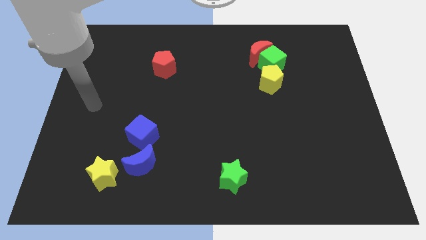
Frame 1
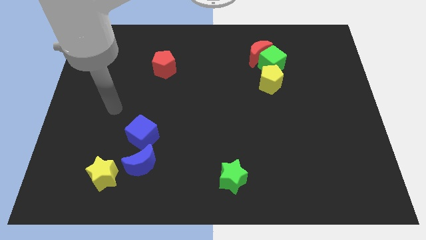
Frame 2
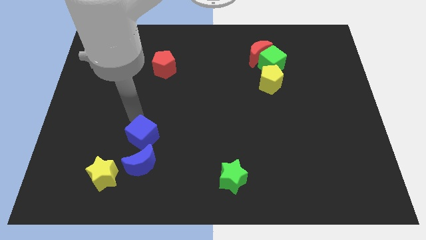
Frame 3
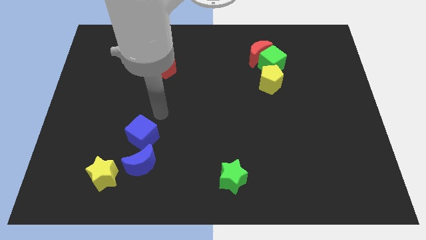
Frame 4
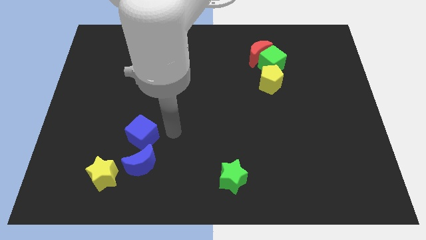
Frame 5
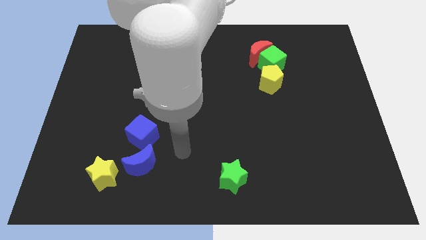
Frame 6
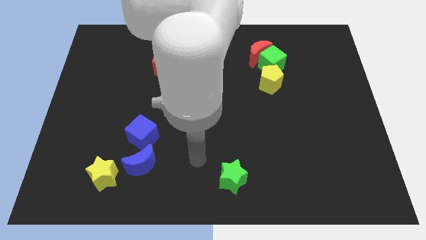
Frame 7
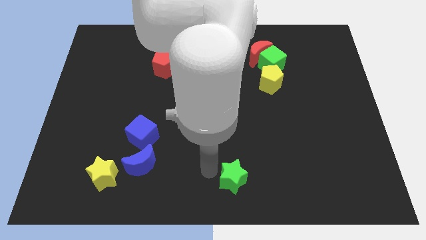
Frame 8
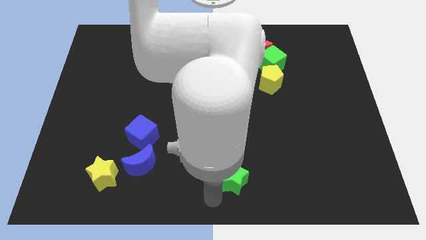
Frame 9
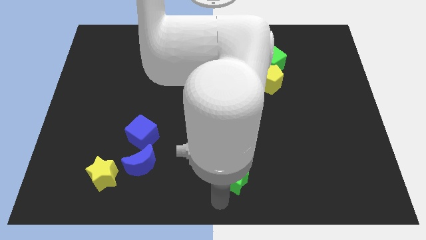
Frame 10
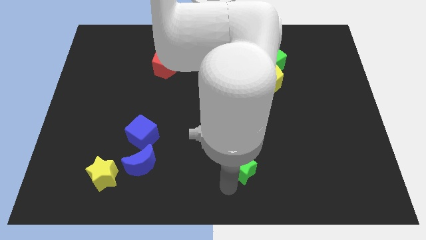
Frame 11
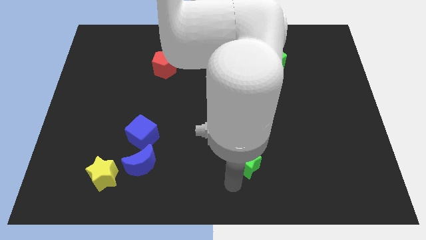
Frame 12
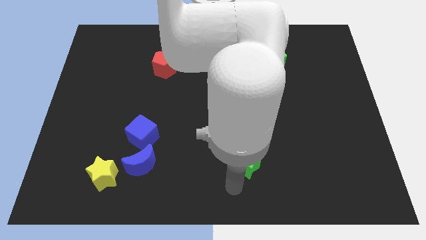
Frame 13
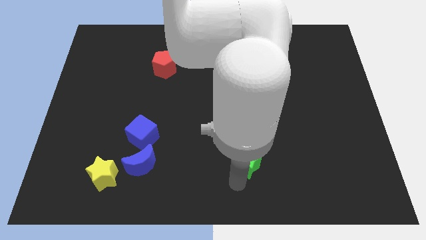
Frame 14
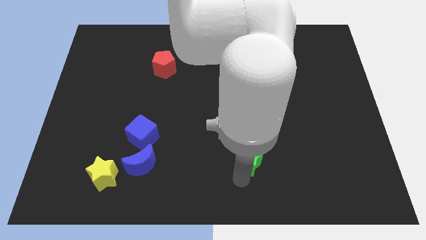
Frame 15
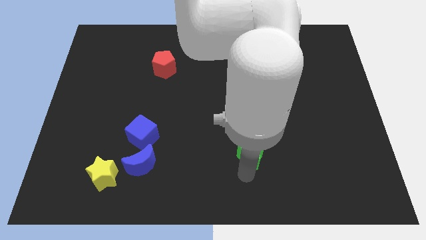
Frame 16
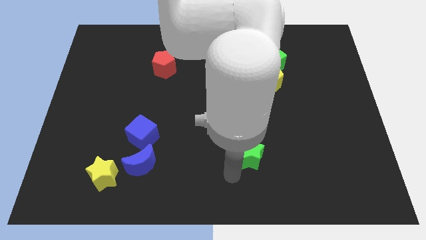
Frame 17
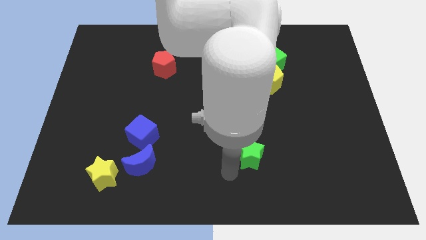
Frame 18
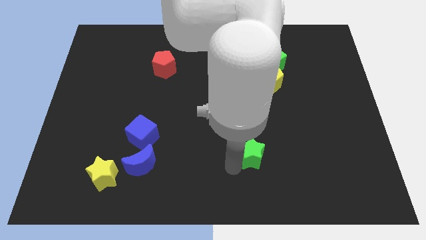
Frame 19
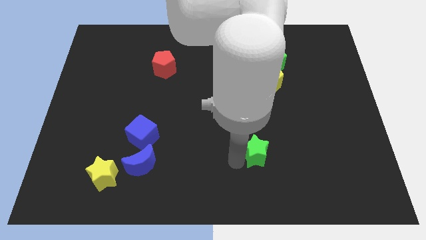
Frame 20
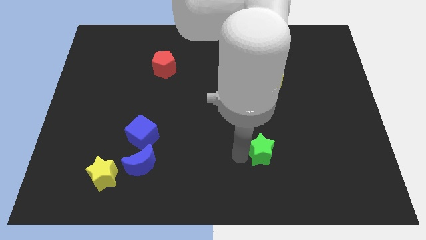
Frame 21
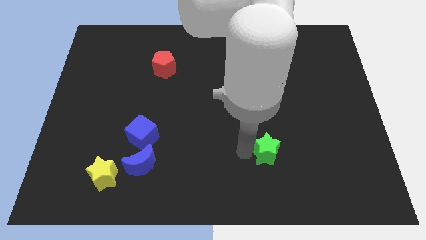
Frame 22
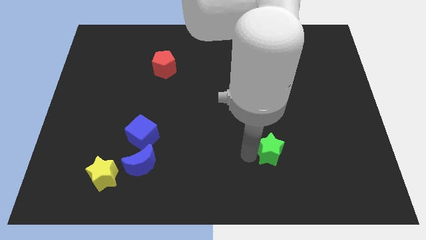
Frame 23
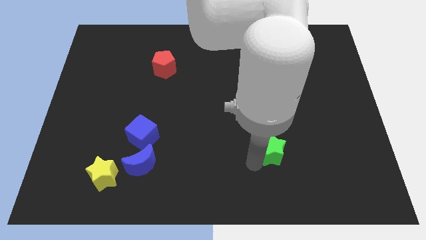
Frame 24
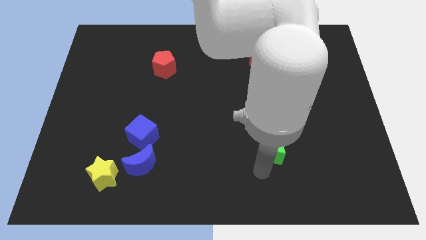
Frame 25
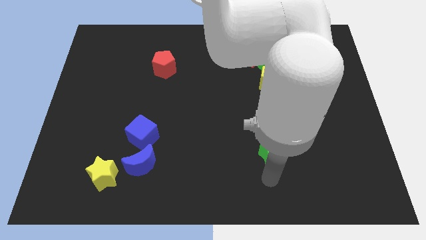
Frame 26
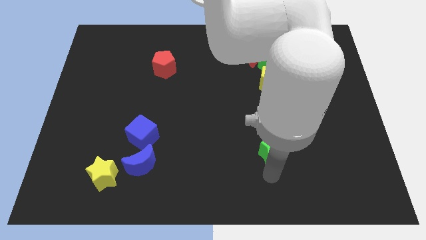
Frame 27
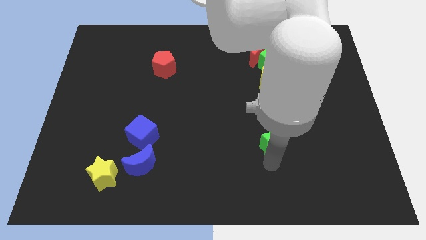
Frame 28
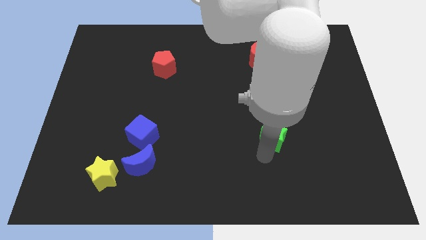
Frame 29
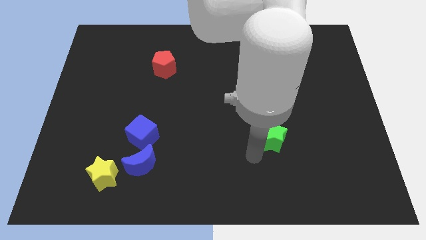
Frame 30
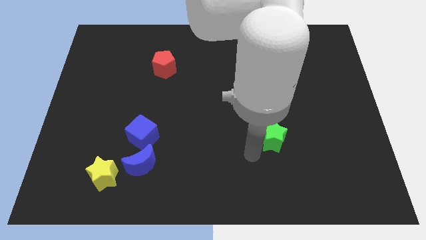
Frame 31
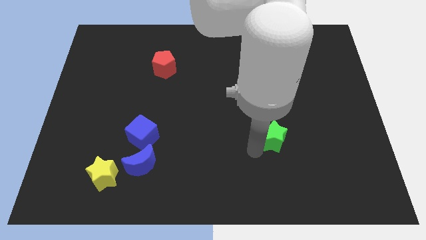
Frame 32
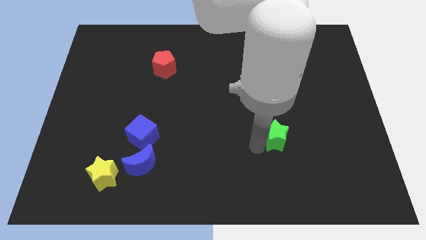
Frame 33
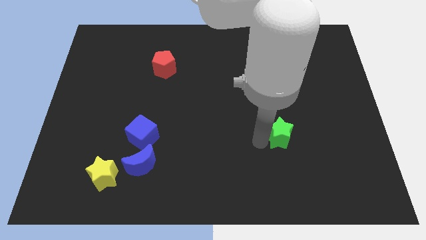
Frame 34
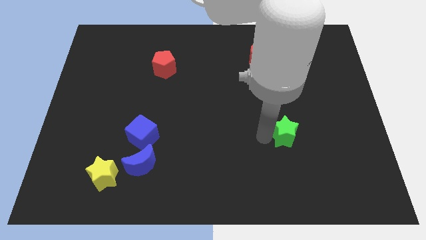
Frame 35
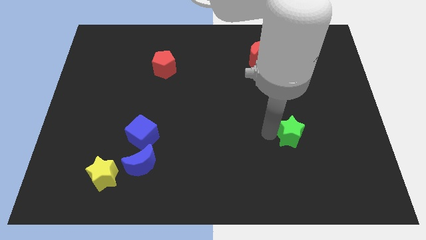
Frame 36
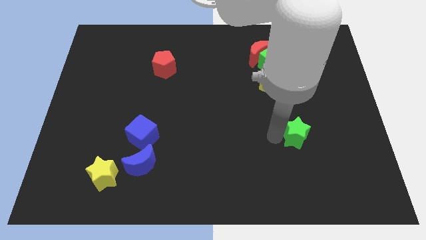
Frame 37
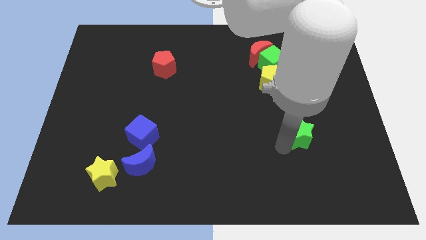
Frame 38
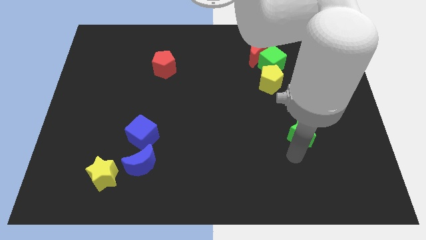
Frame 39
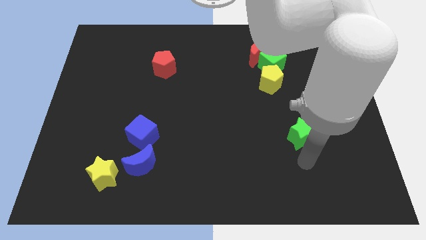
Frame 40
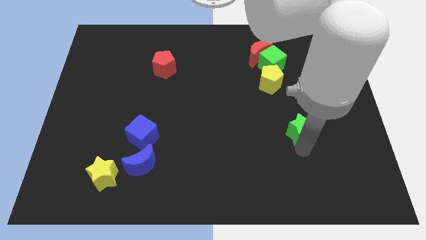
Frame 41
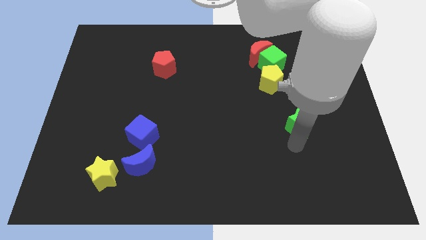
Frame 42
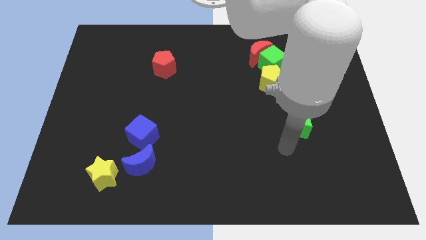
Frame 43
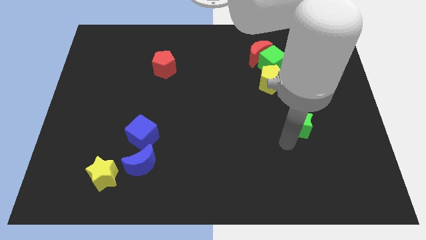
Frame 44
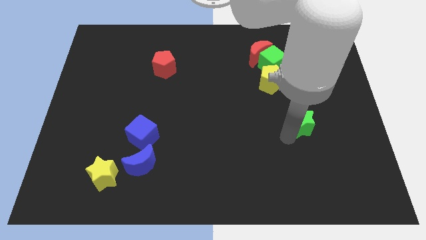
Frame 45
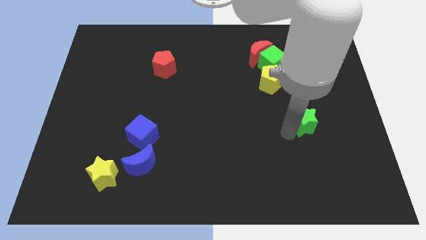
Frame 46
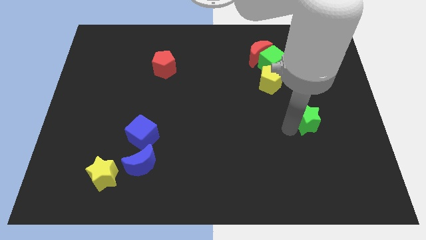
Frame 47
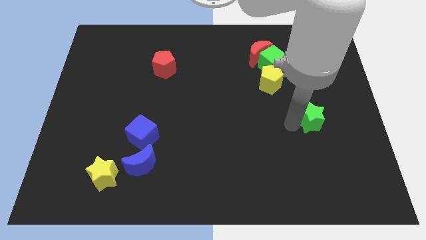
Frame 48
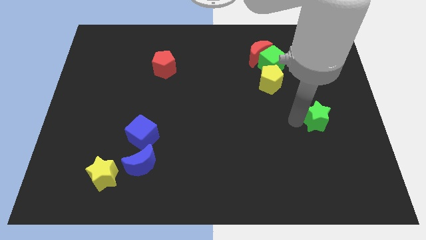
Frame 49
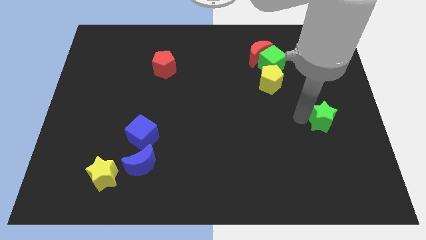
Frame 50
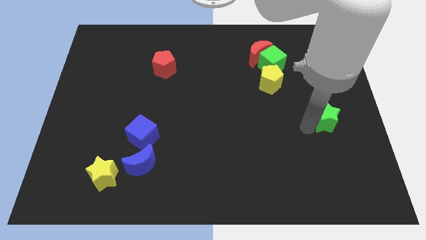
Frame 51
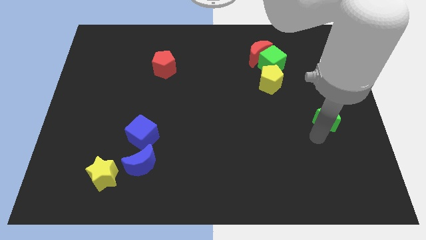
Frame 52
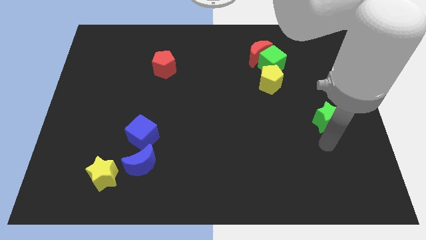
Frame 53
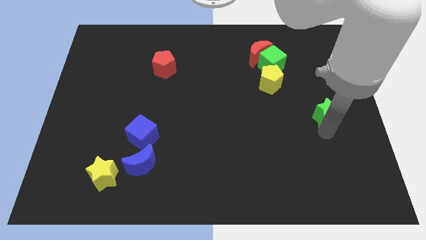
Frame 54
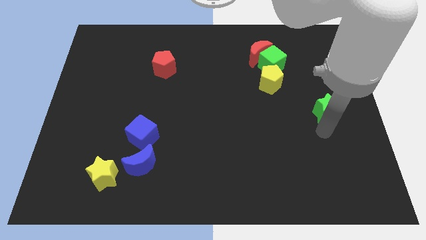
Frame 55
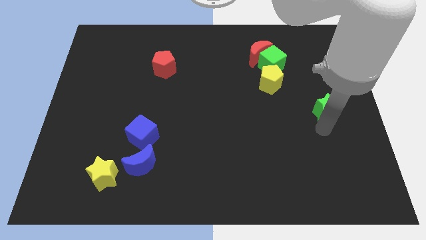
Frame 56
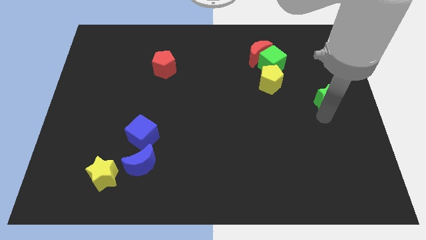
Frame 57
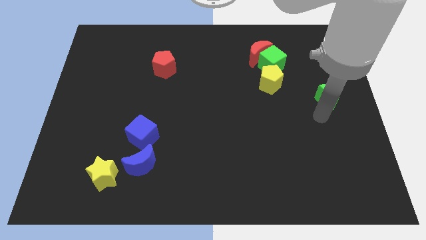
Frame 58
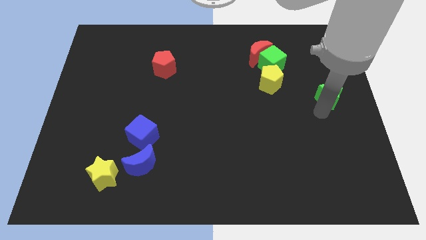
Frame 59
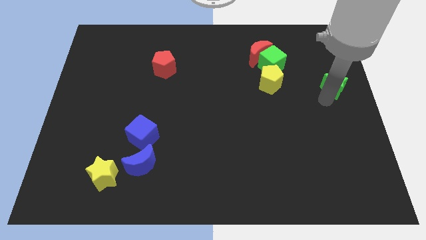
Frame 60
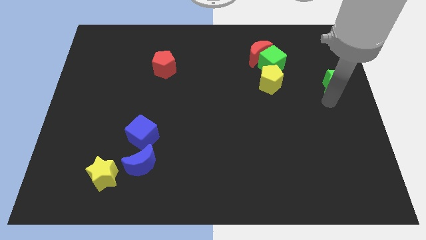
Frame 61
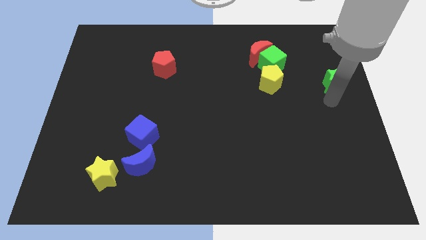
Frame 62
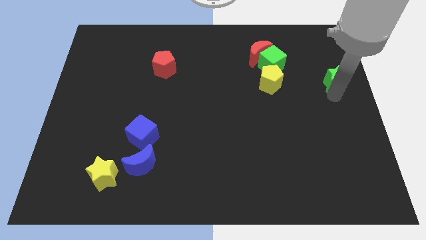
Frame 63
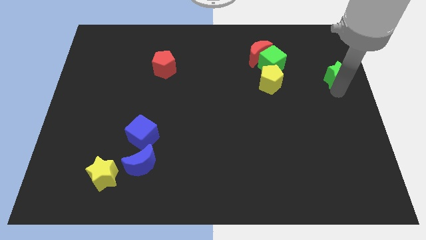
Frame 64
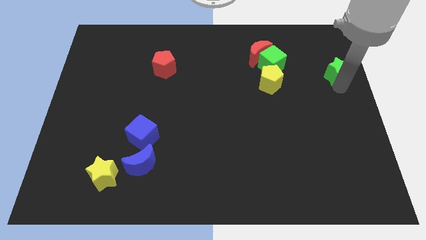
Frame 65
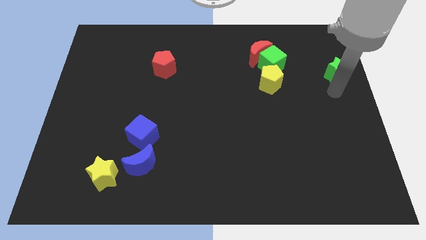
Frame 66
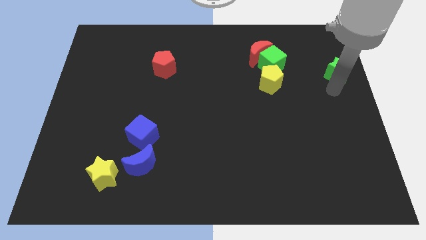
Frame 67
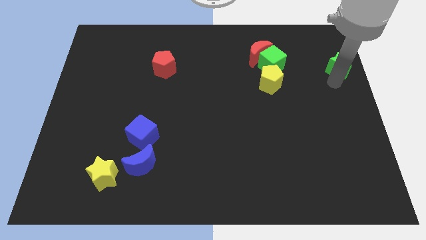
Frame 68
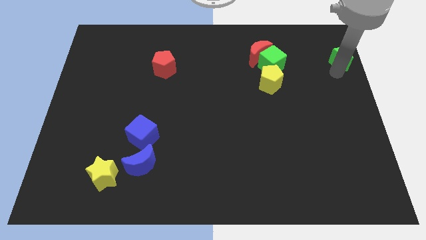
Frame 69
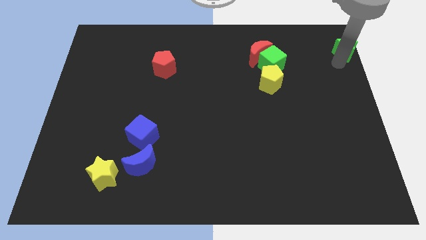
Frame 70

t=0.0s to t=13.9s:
put the green star to the top right of the board
